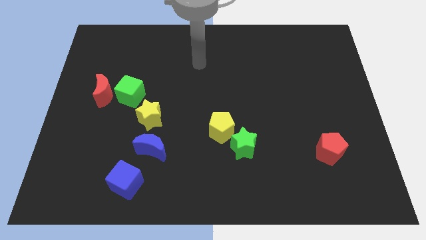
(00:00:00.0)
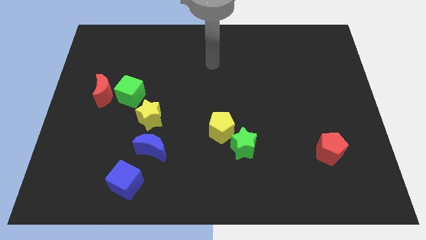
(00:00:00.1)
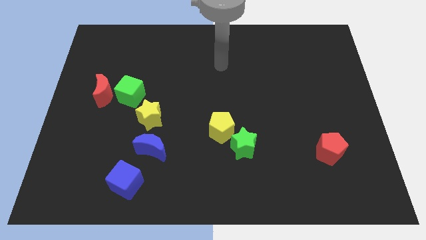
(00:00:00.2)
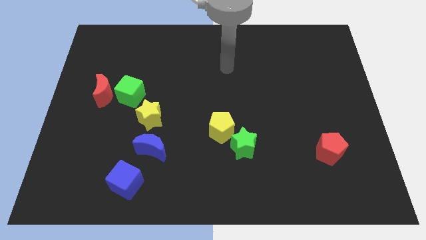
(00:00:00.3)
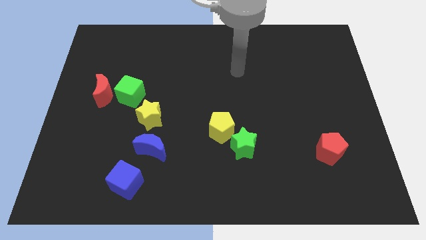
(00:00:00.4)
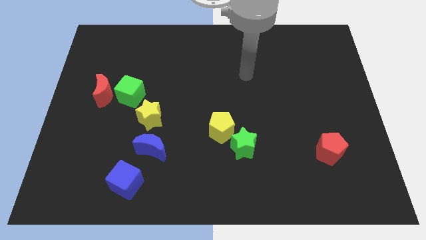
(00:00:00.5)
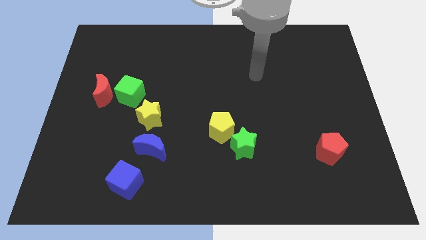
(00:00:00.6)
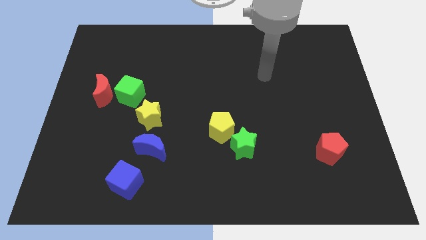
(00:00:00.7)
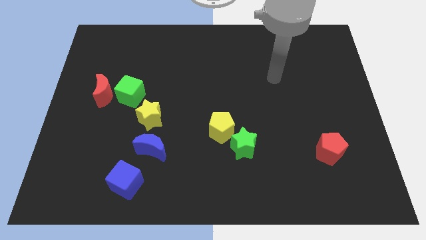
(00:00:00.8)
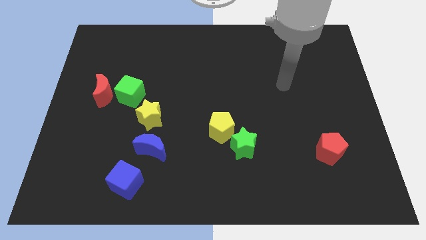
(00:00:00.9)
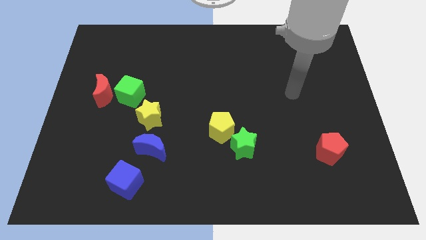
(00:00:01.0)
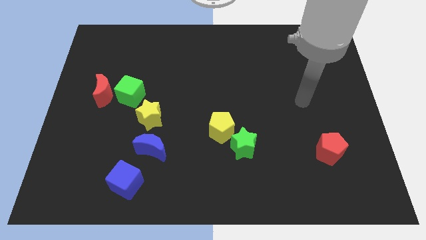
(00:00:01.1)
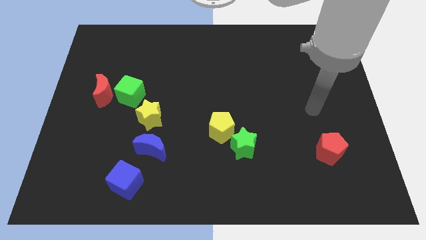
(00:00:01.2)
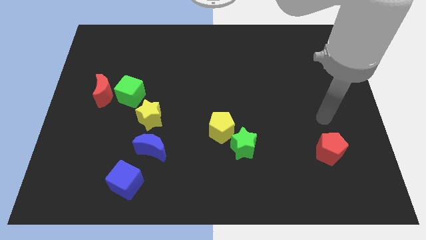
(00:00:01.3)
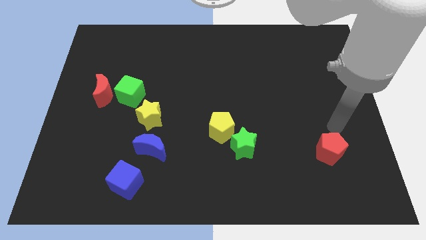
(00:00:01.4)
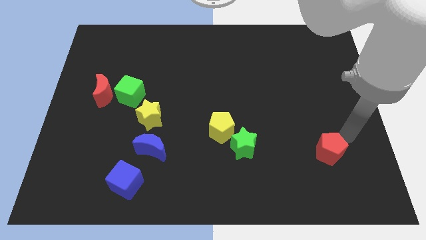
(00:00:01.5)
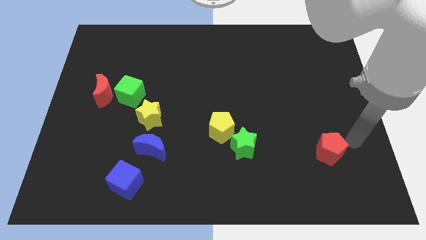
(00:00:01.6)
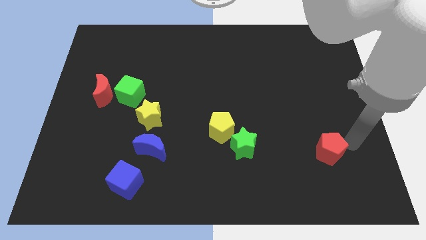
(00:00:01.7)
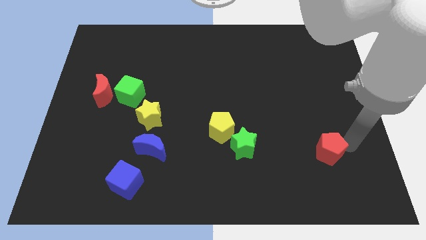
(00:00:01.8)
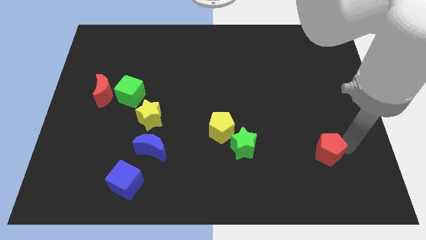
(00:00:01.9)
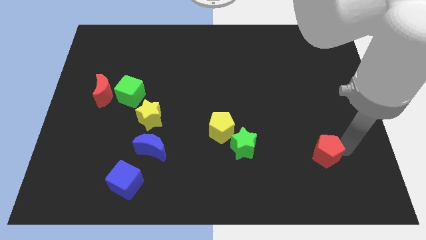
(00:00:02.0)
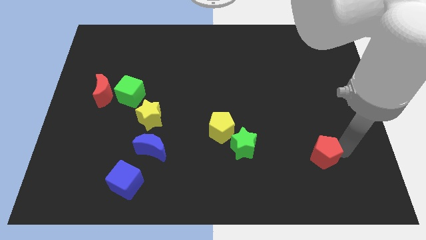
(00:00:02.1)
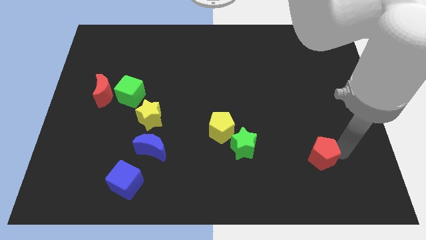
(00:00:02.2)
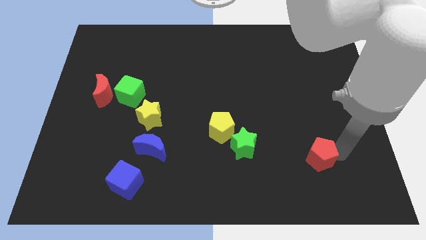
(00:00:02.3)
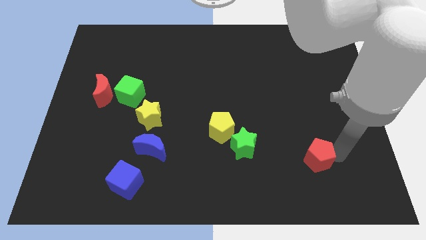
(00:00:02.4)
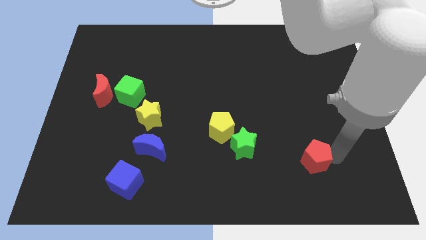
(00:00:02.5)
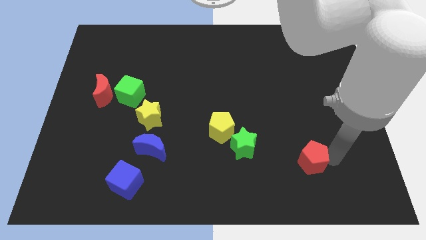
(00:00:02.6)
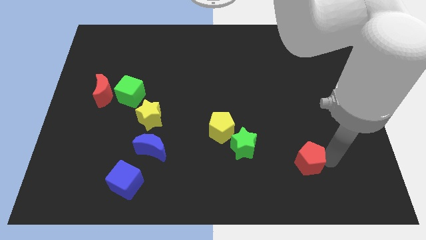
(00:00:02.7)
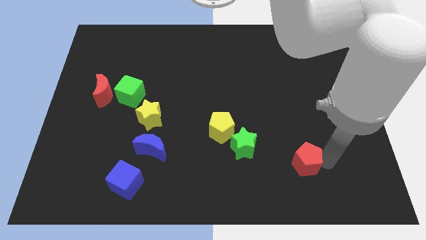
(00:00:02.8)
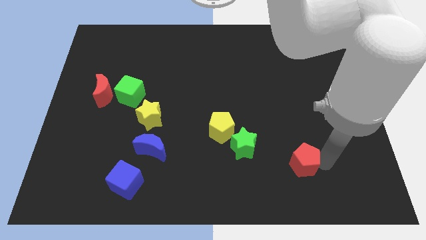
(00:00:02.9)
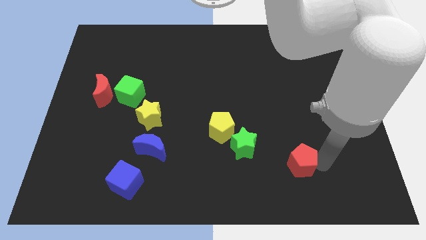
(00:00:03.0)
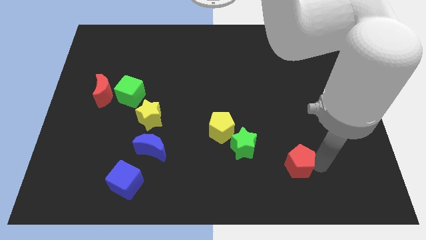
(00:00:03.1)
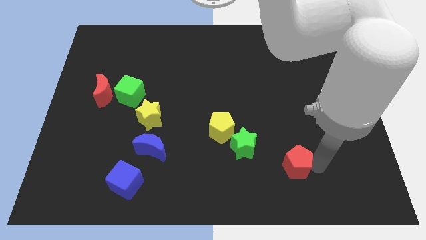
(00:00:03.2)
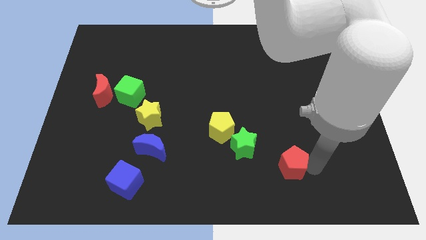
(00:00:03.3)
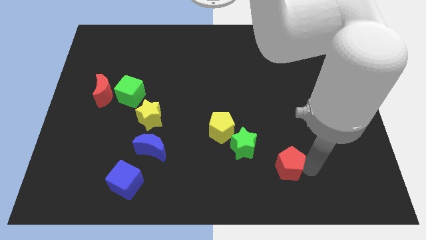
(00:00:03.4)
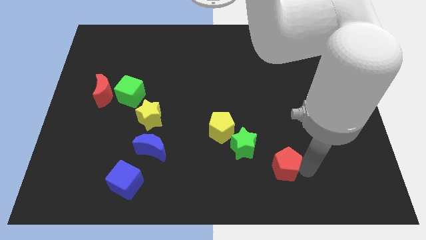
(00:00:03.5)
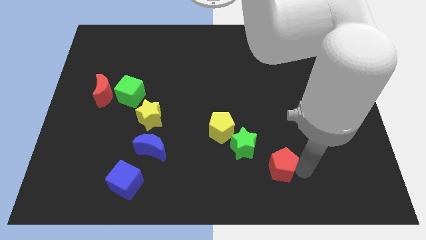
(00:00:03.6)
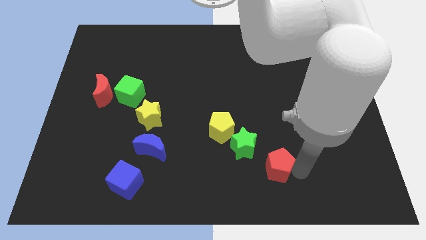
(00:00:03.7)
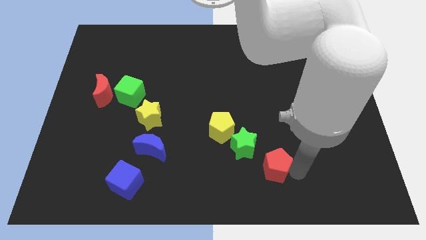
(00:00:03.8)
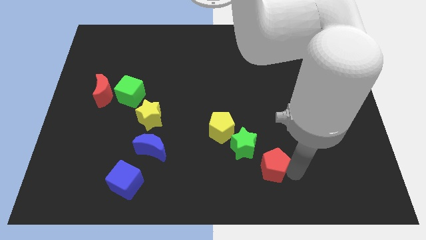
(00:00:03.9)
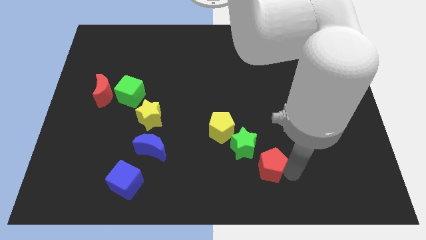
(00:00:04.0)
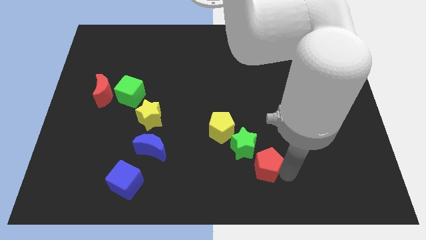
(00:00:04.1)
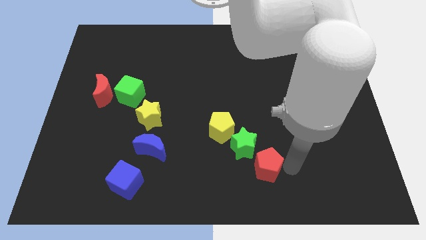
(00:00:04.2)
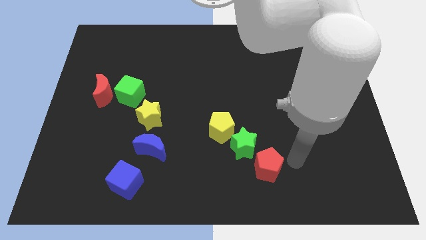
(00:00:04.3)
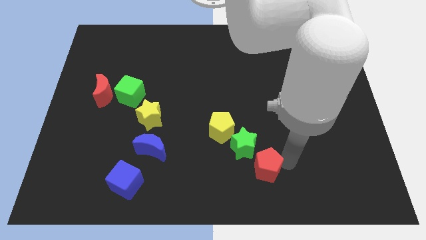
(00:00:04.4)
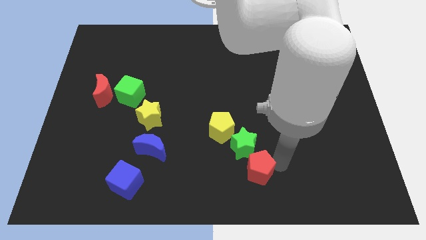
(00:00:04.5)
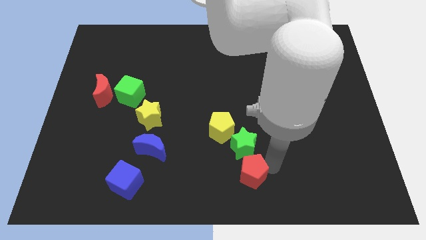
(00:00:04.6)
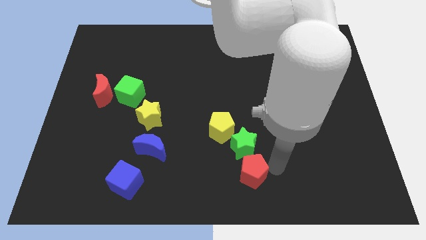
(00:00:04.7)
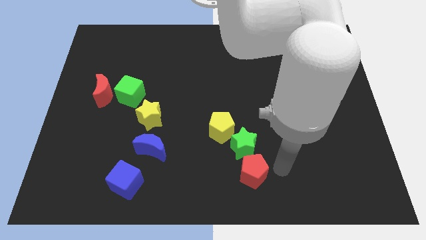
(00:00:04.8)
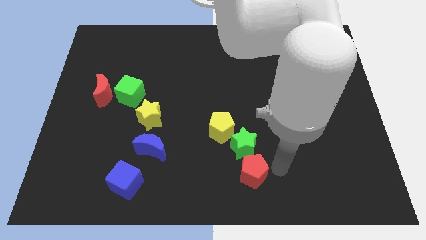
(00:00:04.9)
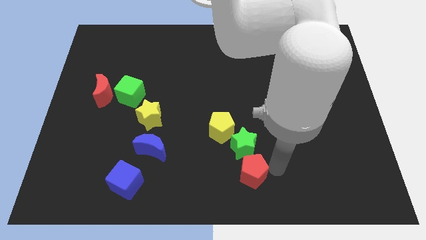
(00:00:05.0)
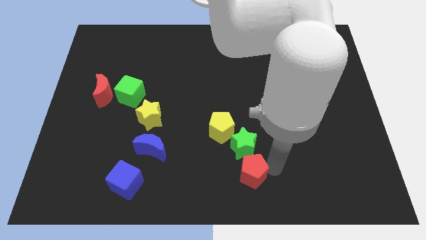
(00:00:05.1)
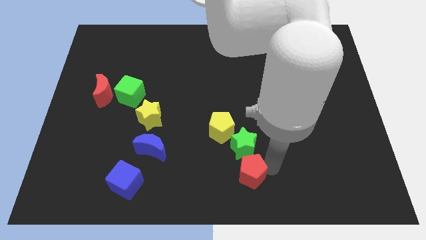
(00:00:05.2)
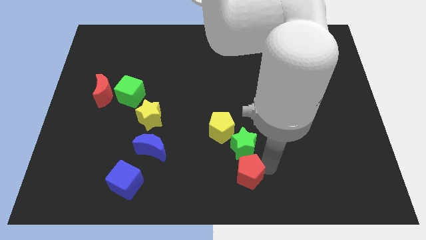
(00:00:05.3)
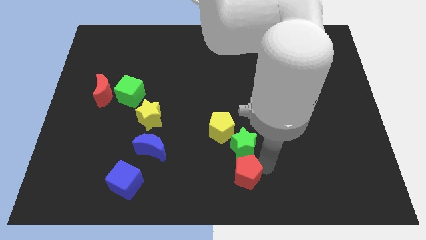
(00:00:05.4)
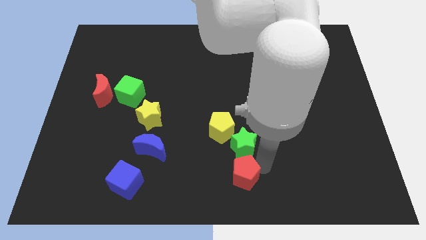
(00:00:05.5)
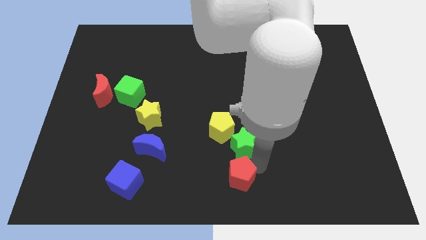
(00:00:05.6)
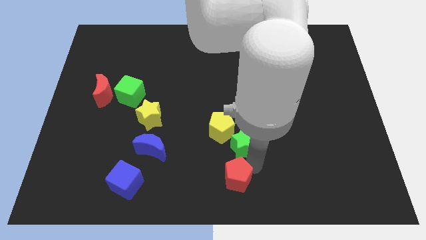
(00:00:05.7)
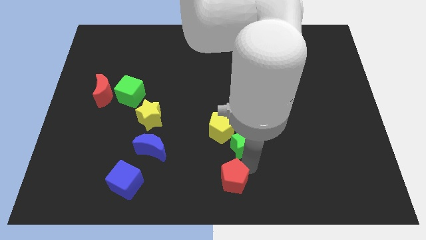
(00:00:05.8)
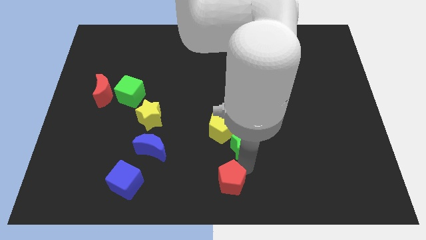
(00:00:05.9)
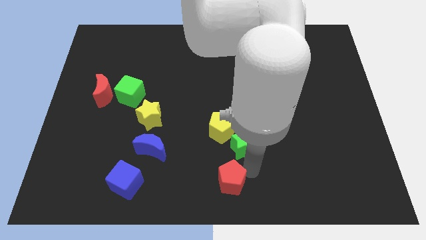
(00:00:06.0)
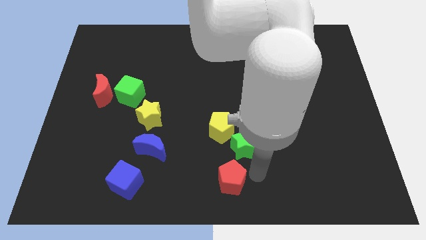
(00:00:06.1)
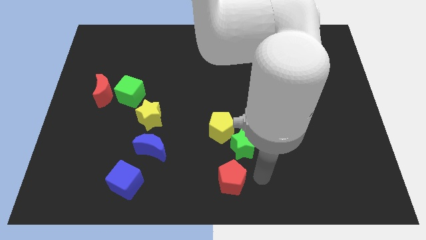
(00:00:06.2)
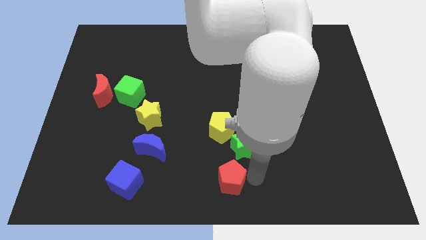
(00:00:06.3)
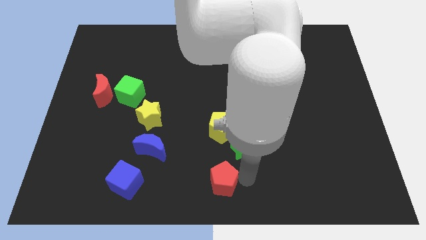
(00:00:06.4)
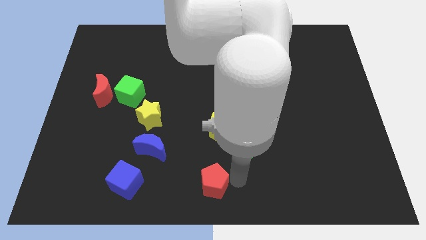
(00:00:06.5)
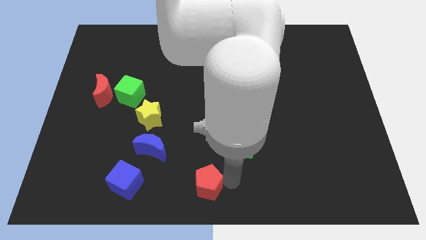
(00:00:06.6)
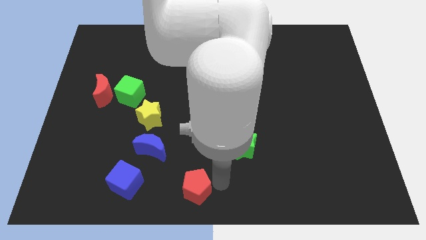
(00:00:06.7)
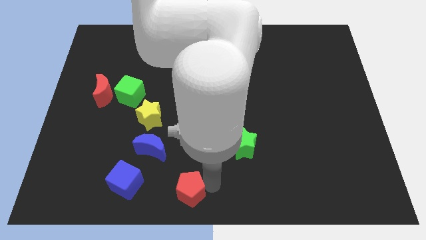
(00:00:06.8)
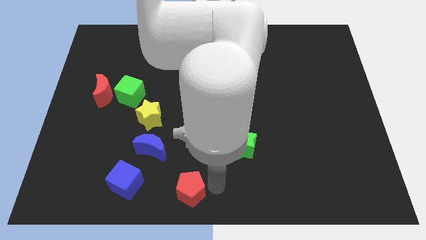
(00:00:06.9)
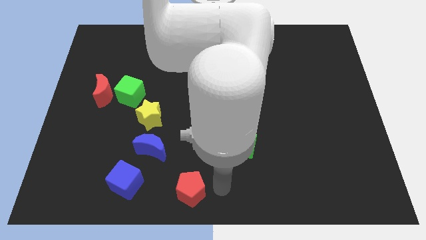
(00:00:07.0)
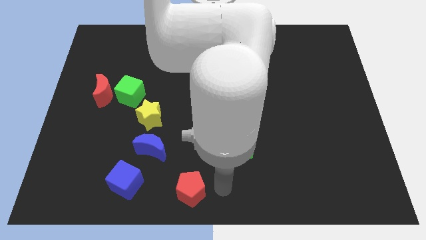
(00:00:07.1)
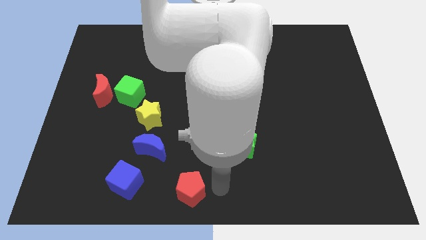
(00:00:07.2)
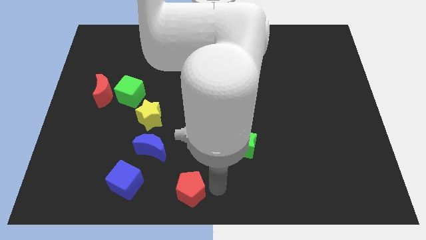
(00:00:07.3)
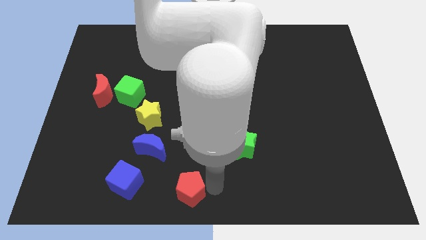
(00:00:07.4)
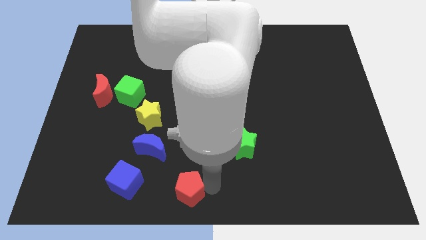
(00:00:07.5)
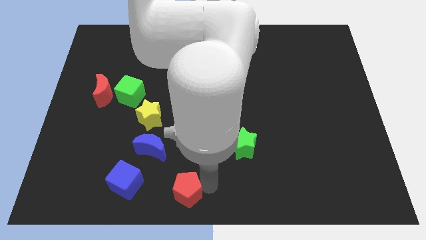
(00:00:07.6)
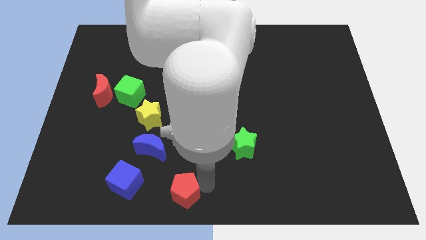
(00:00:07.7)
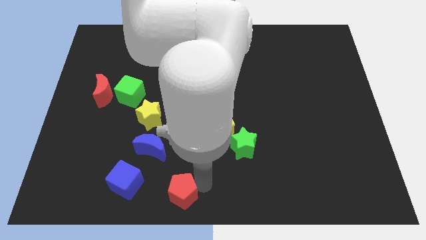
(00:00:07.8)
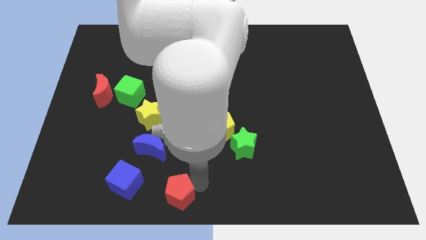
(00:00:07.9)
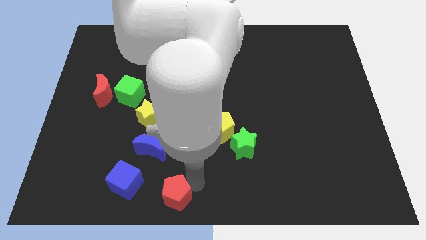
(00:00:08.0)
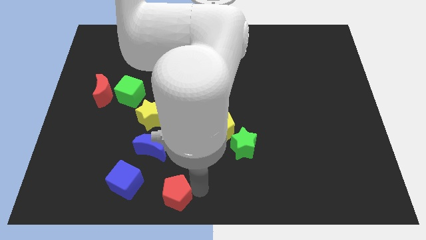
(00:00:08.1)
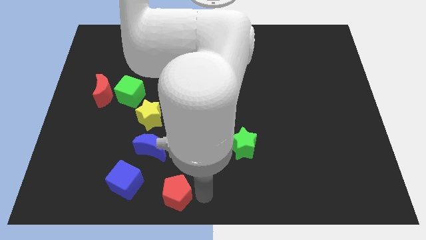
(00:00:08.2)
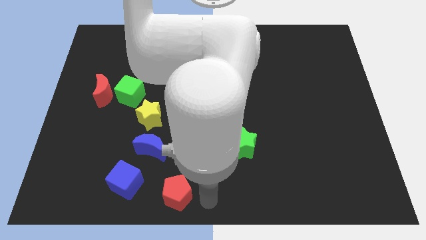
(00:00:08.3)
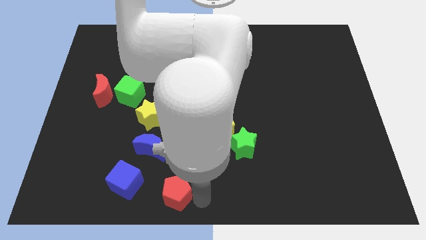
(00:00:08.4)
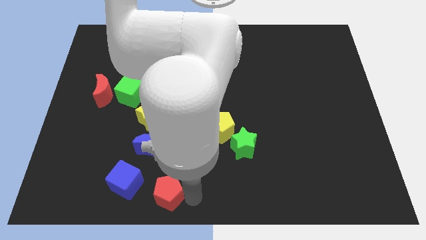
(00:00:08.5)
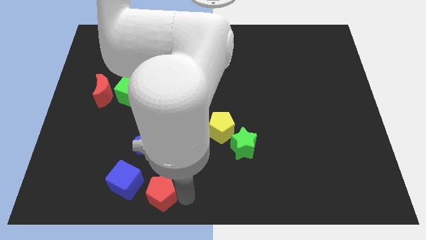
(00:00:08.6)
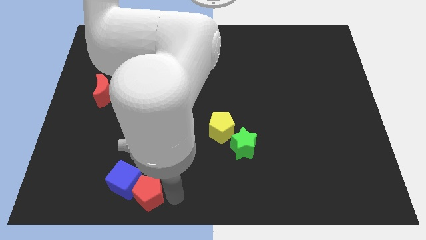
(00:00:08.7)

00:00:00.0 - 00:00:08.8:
push the red pentagon next to the blue cube
